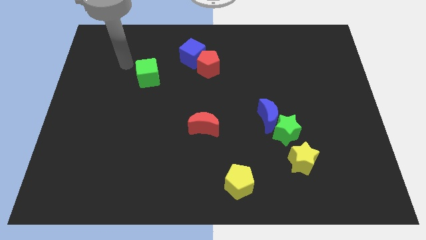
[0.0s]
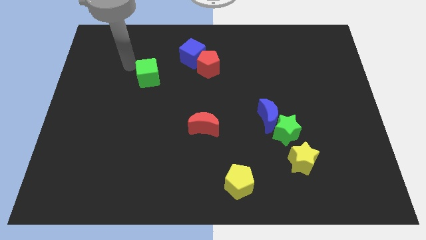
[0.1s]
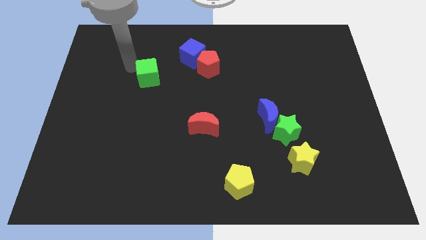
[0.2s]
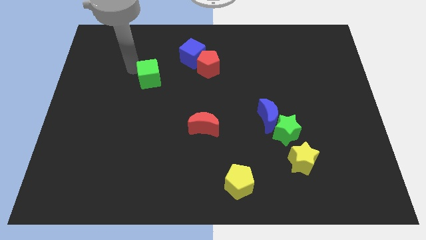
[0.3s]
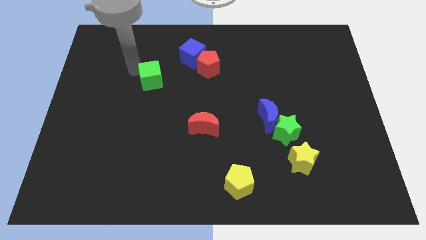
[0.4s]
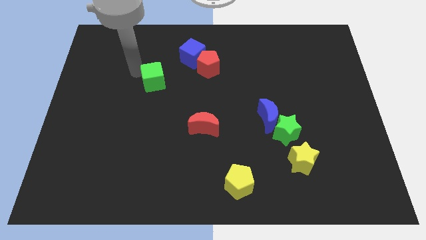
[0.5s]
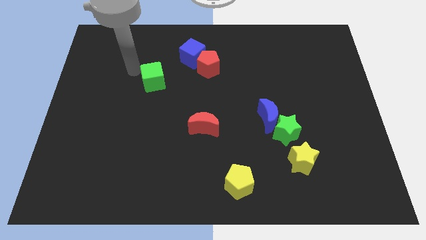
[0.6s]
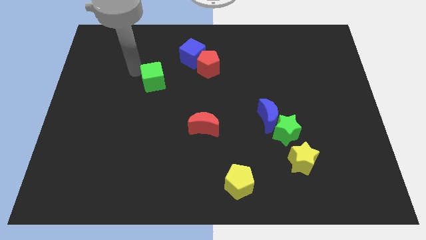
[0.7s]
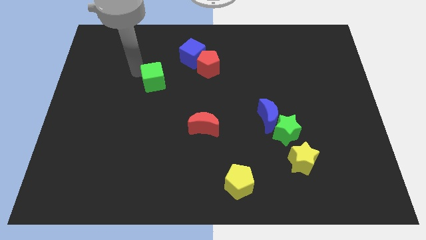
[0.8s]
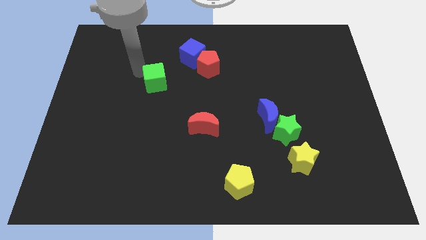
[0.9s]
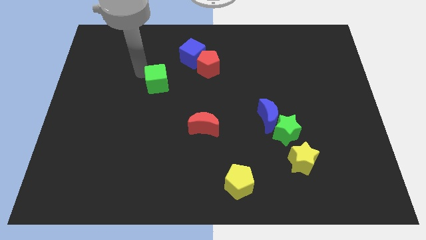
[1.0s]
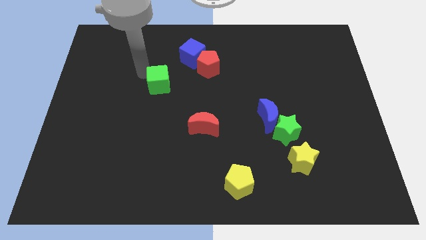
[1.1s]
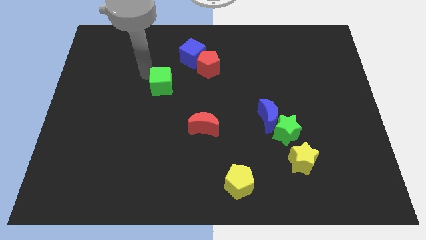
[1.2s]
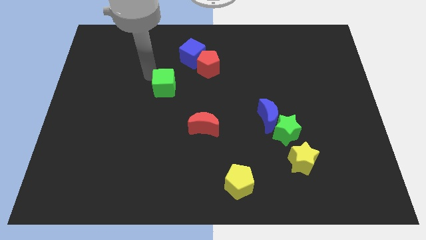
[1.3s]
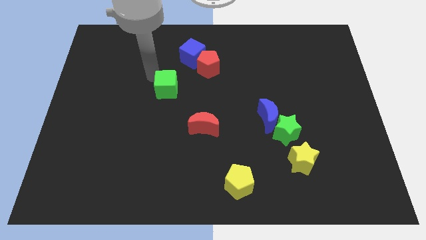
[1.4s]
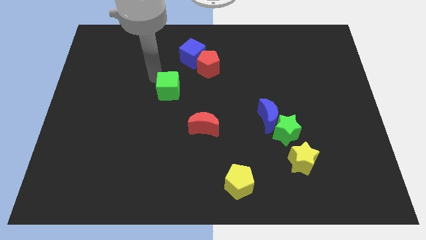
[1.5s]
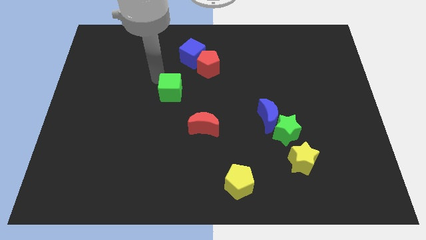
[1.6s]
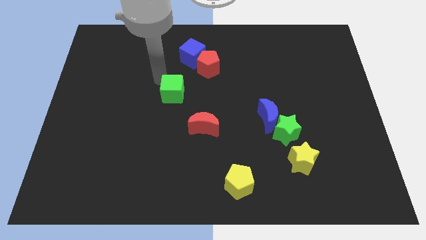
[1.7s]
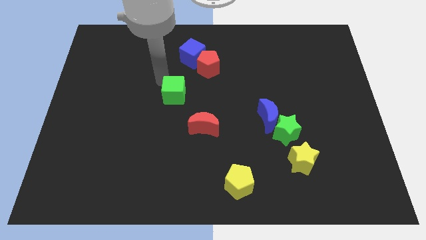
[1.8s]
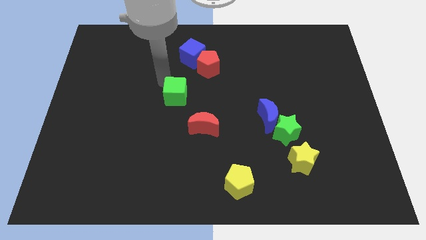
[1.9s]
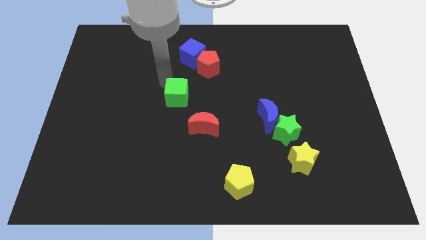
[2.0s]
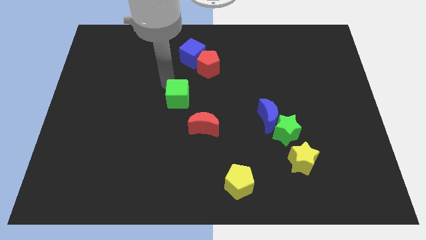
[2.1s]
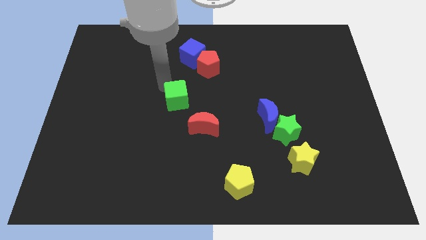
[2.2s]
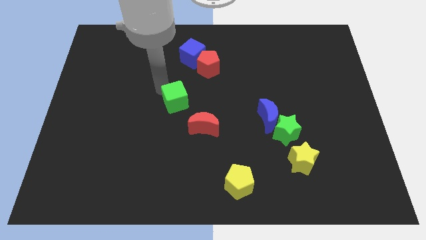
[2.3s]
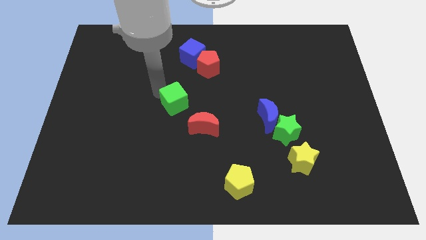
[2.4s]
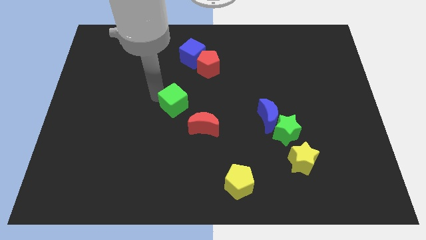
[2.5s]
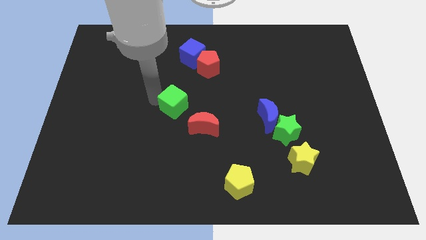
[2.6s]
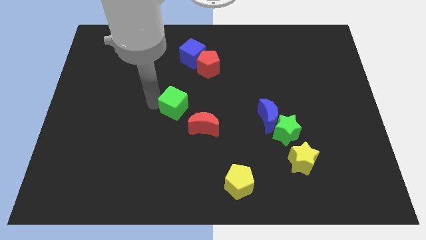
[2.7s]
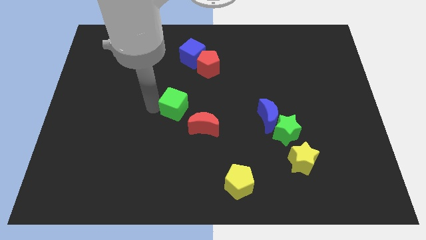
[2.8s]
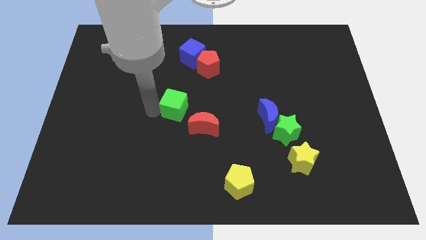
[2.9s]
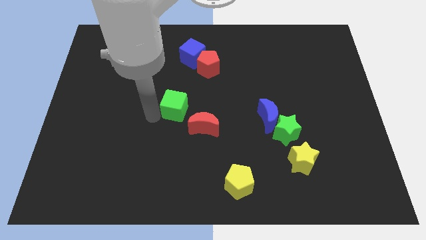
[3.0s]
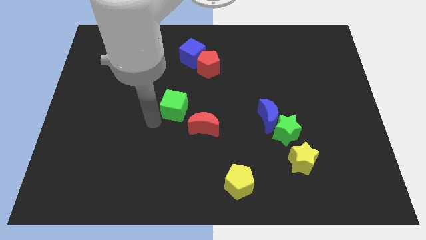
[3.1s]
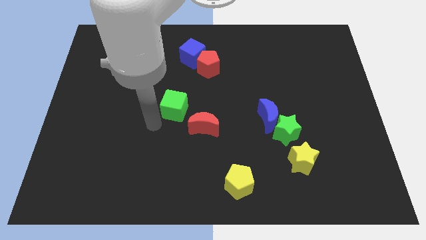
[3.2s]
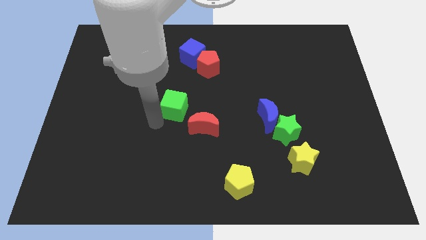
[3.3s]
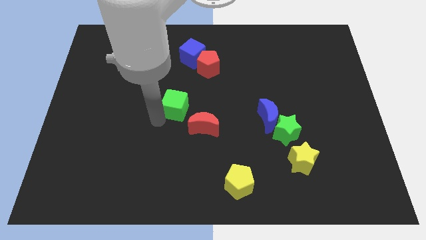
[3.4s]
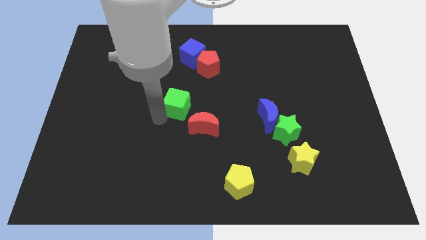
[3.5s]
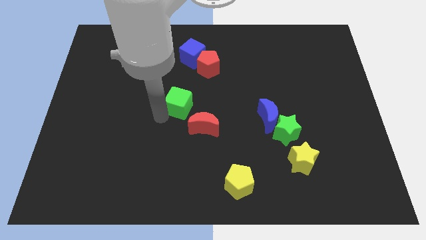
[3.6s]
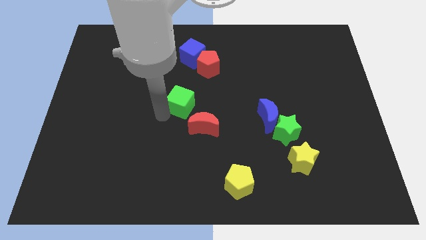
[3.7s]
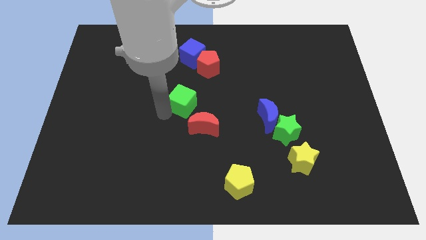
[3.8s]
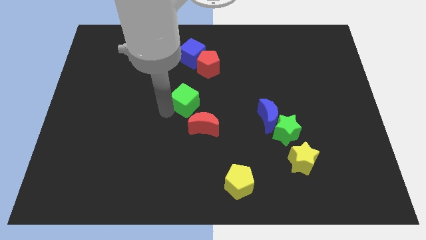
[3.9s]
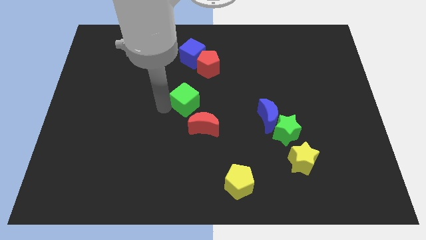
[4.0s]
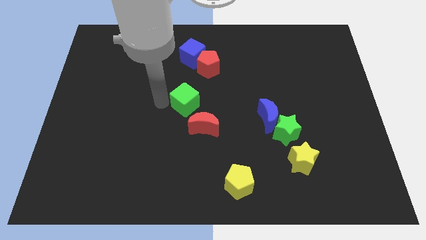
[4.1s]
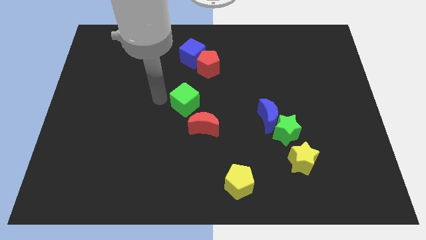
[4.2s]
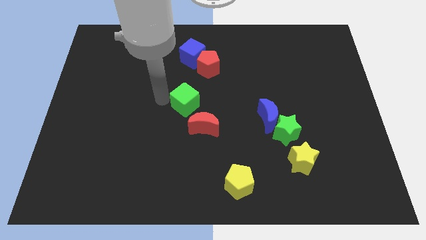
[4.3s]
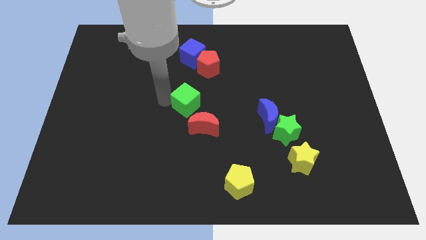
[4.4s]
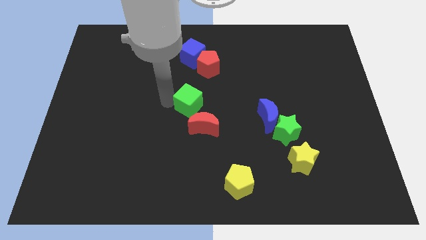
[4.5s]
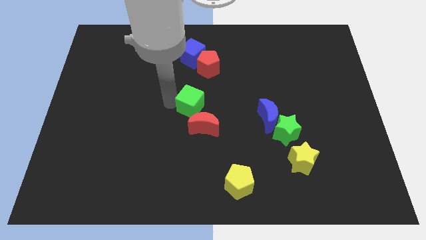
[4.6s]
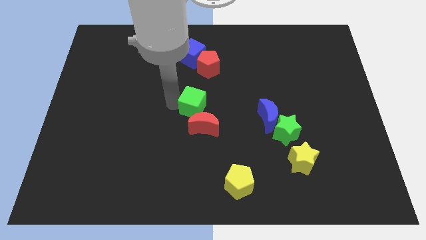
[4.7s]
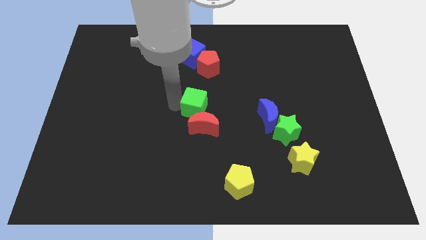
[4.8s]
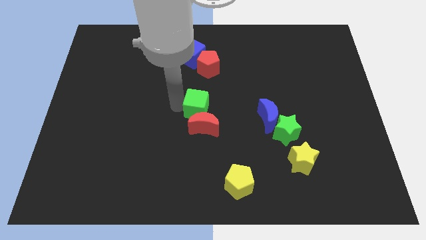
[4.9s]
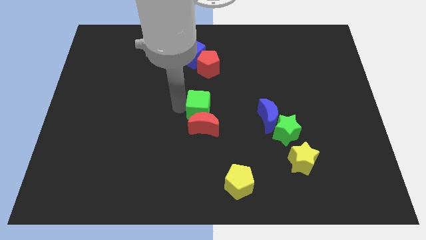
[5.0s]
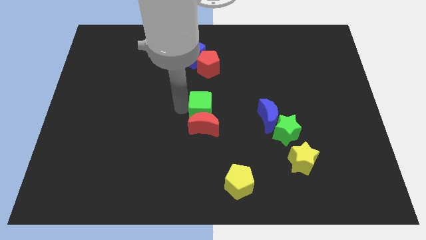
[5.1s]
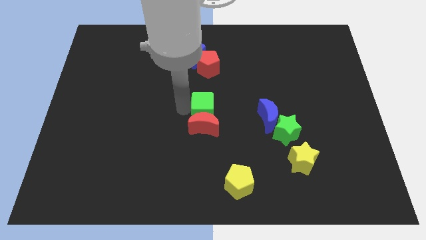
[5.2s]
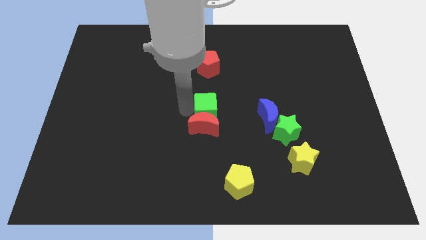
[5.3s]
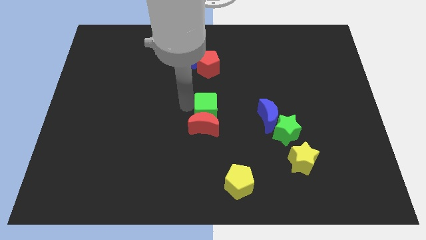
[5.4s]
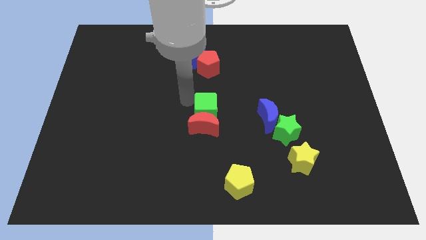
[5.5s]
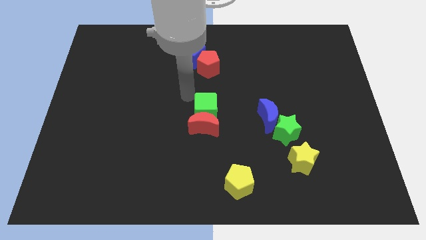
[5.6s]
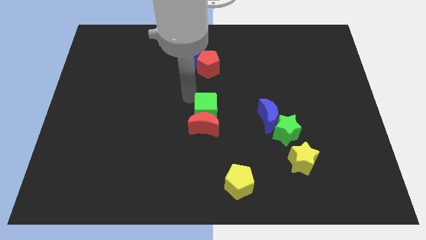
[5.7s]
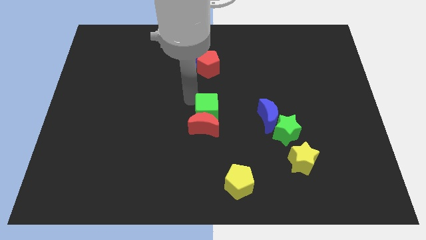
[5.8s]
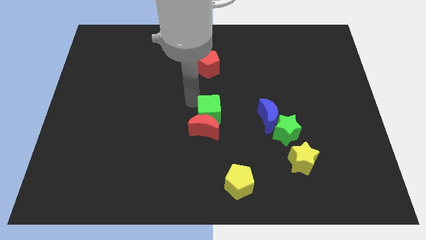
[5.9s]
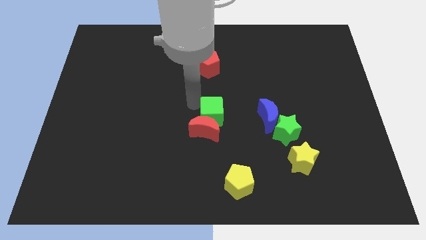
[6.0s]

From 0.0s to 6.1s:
move the green cube diagonally downwards and right

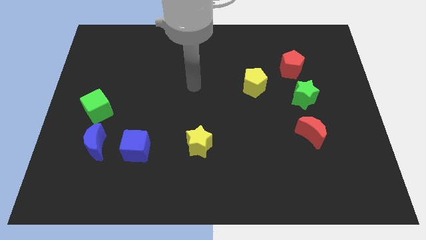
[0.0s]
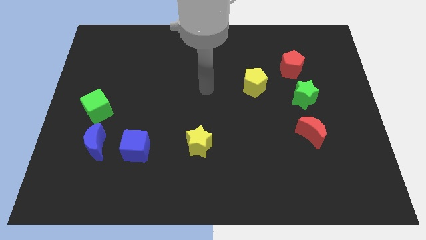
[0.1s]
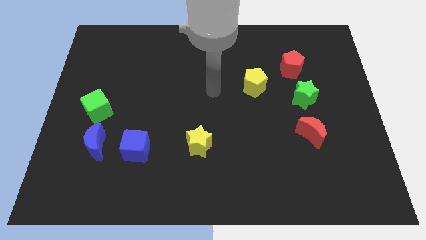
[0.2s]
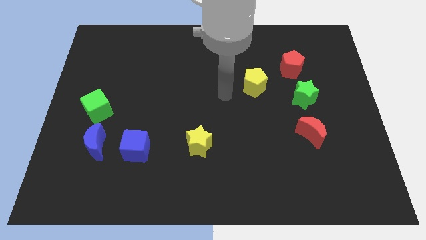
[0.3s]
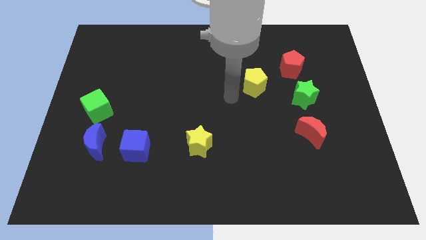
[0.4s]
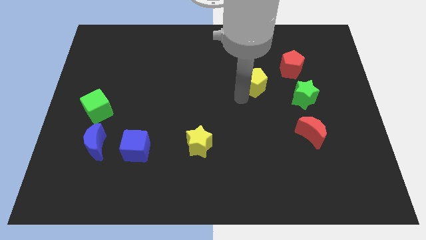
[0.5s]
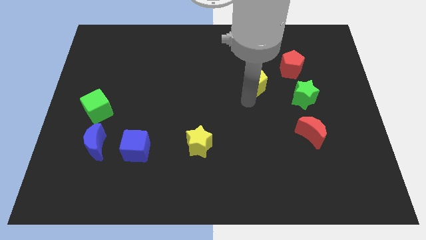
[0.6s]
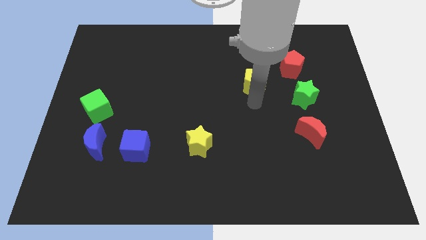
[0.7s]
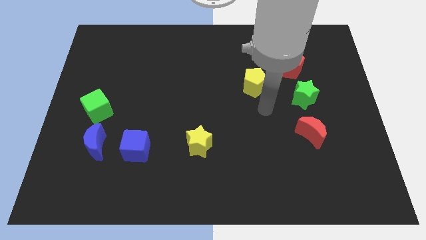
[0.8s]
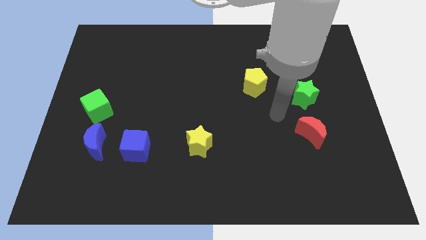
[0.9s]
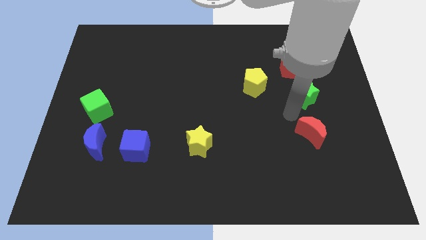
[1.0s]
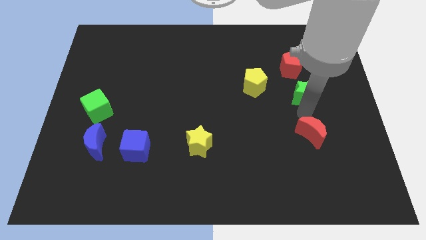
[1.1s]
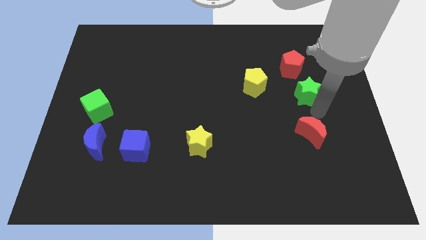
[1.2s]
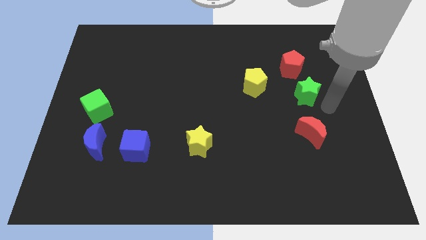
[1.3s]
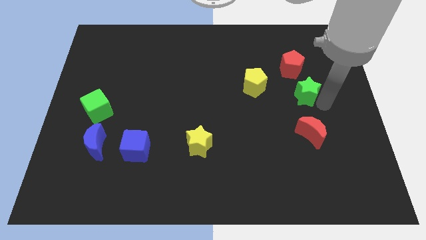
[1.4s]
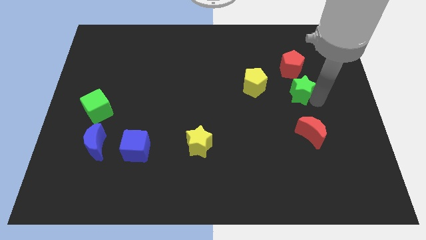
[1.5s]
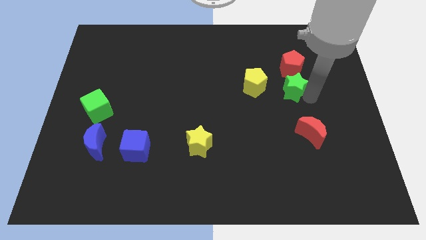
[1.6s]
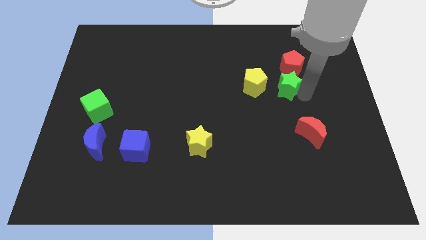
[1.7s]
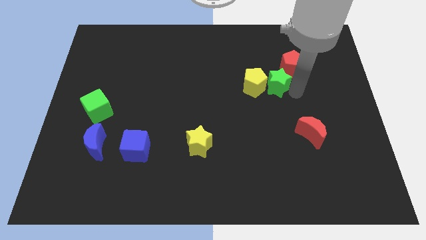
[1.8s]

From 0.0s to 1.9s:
slightly move the green star up and left diagonally

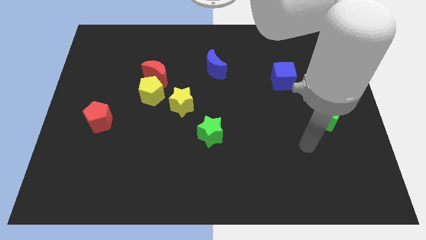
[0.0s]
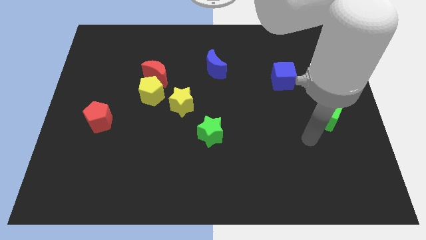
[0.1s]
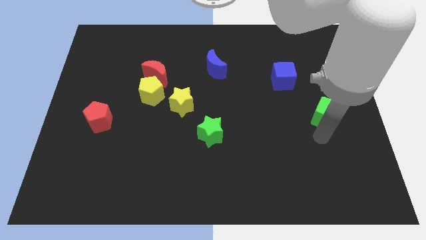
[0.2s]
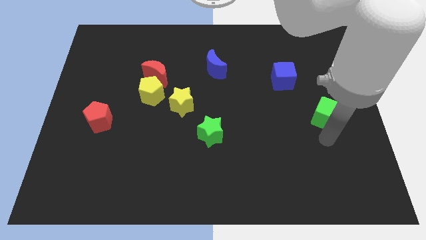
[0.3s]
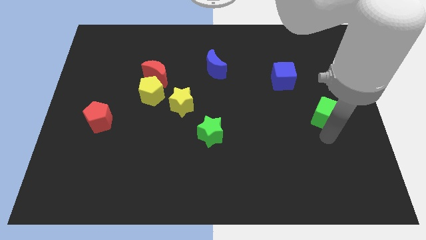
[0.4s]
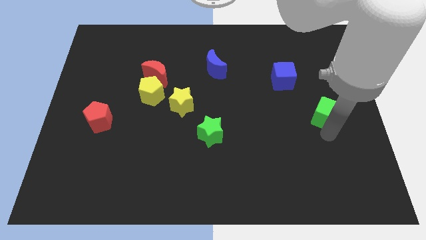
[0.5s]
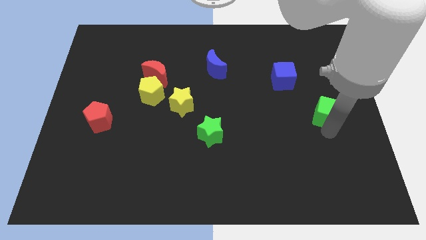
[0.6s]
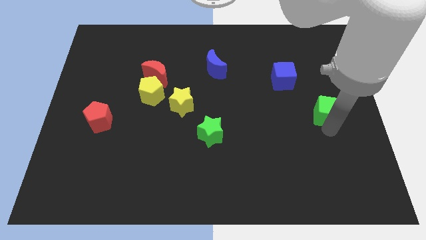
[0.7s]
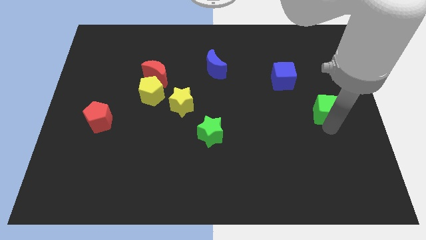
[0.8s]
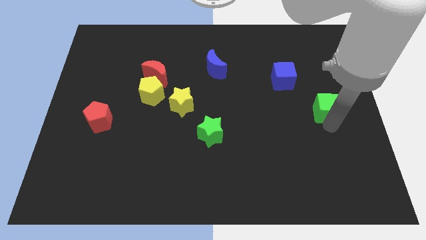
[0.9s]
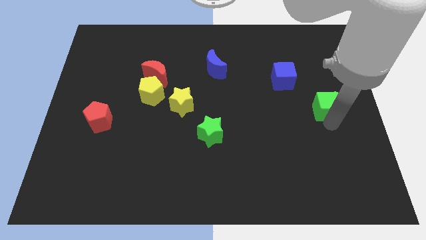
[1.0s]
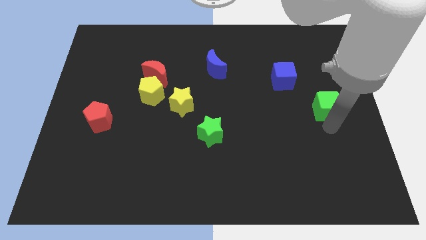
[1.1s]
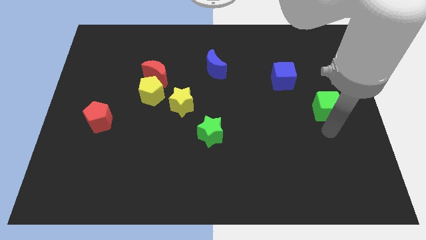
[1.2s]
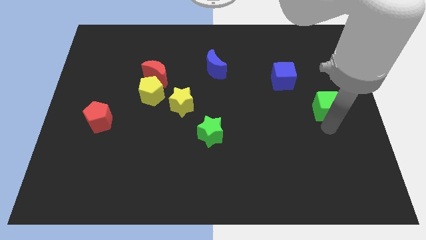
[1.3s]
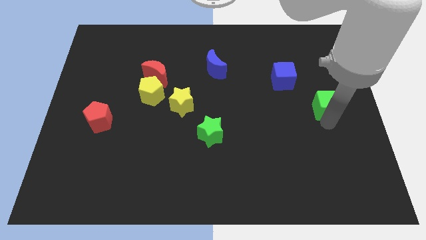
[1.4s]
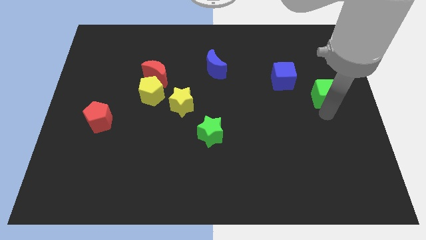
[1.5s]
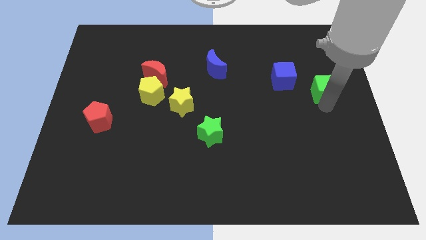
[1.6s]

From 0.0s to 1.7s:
slightly slide the green cube up
